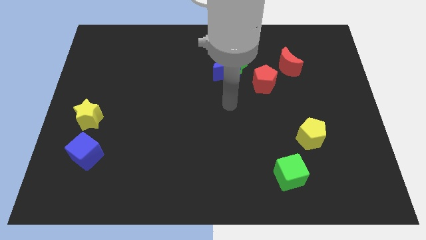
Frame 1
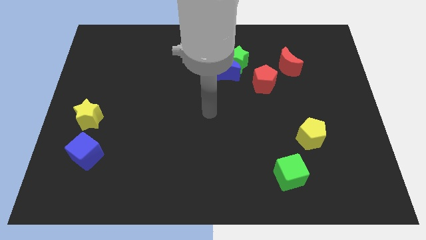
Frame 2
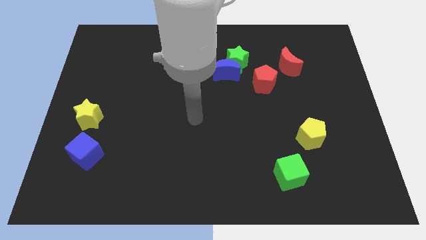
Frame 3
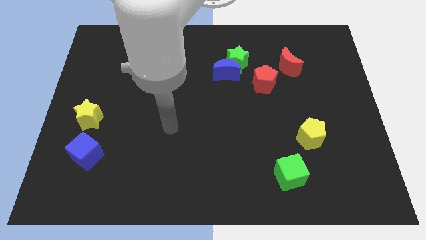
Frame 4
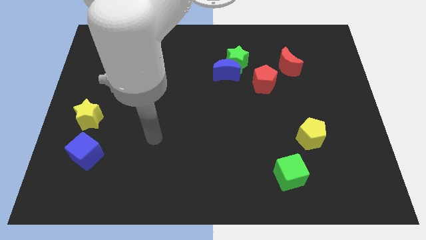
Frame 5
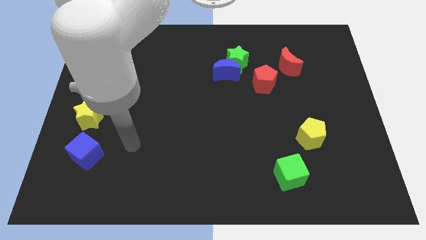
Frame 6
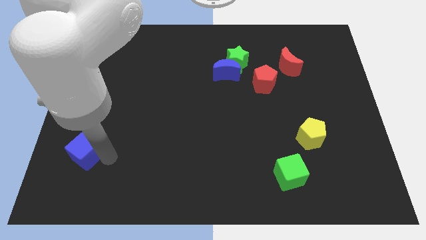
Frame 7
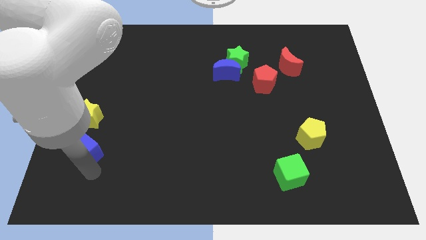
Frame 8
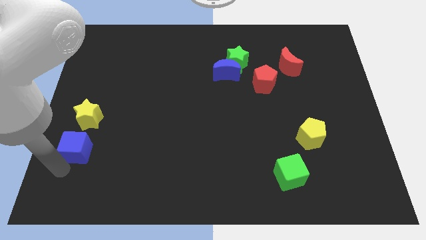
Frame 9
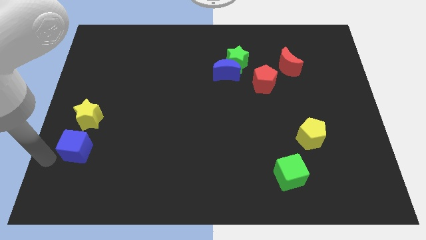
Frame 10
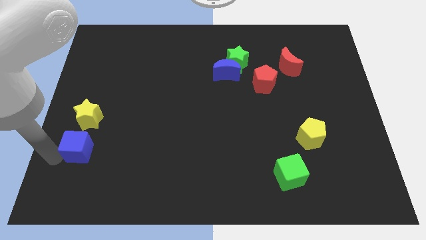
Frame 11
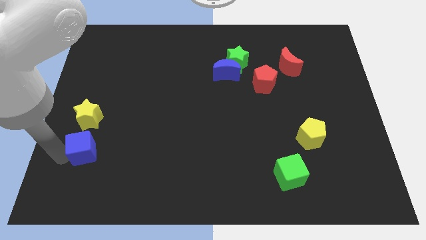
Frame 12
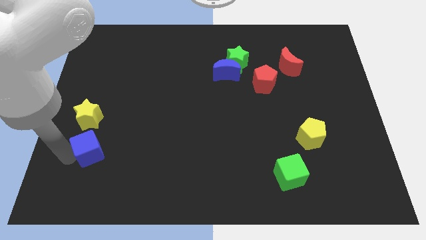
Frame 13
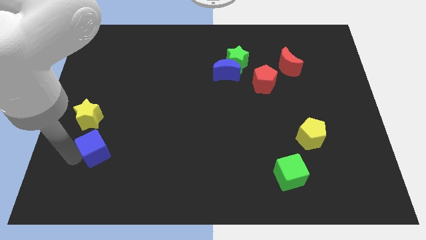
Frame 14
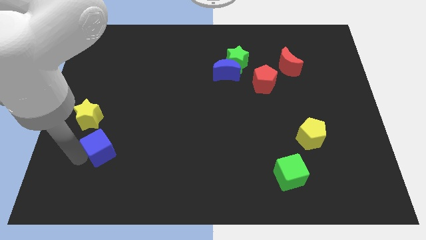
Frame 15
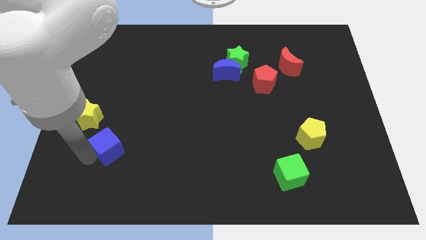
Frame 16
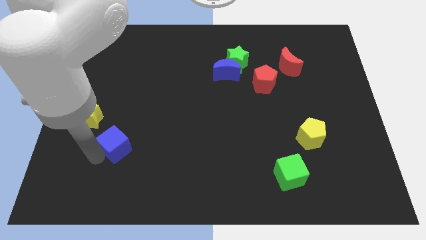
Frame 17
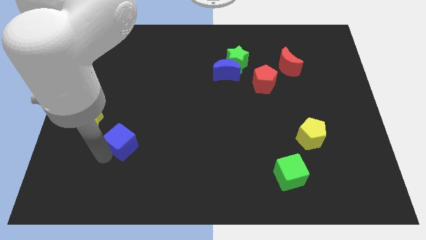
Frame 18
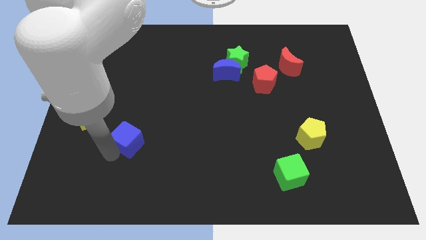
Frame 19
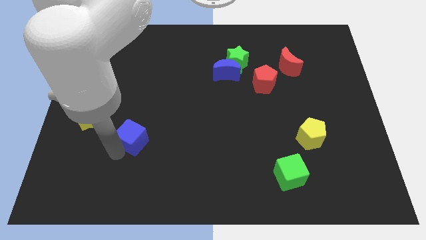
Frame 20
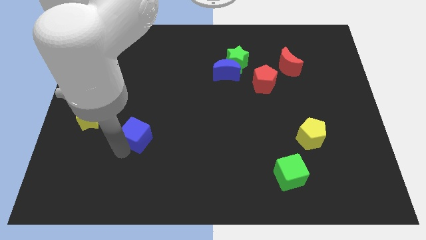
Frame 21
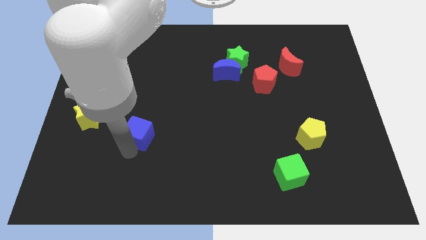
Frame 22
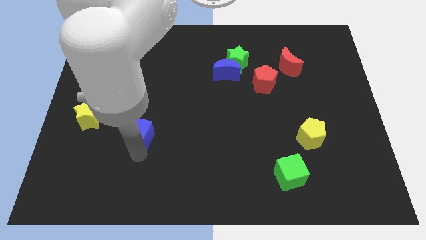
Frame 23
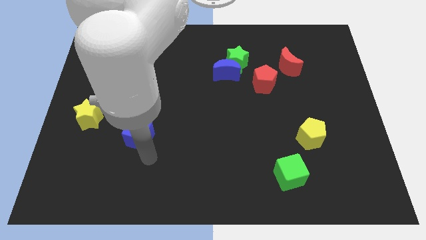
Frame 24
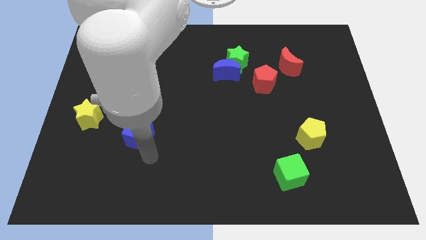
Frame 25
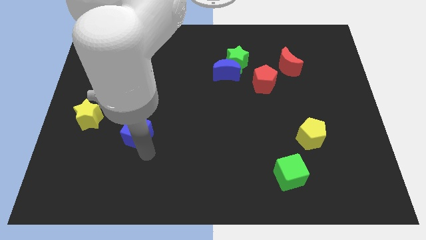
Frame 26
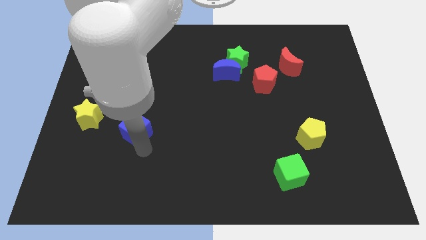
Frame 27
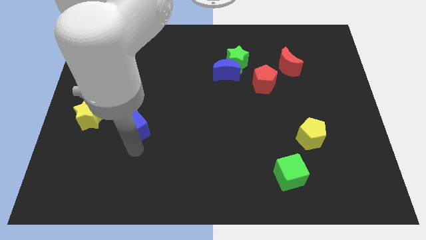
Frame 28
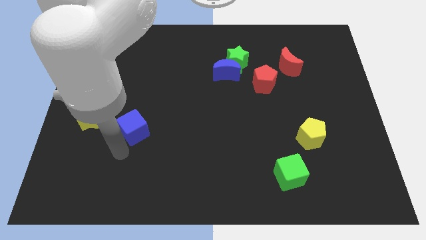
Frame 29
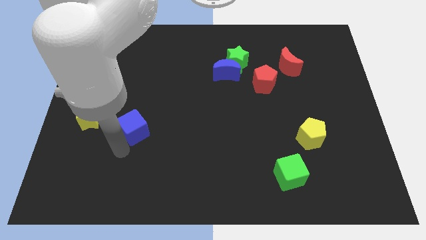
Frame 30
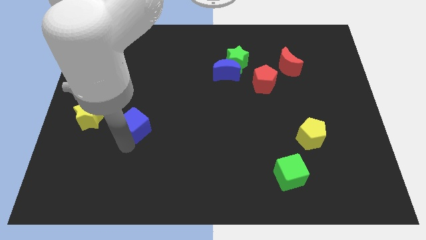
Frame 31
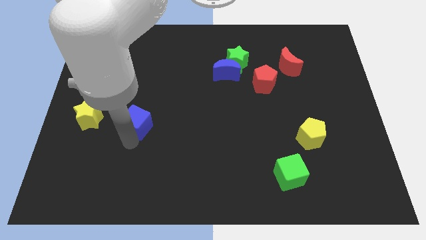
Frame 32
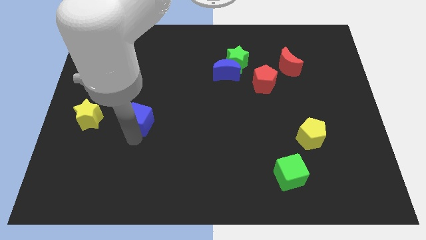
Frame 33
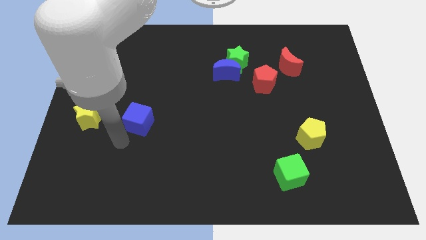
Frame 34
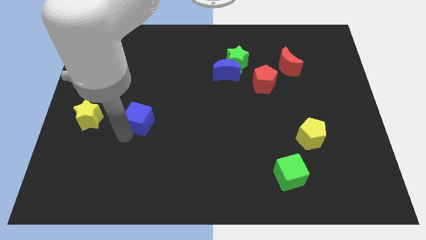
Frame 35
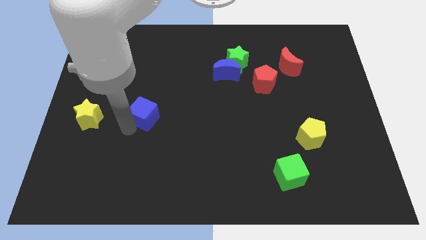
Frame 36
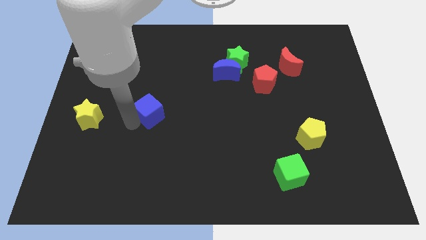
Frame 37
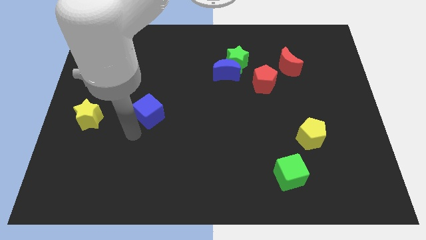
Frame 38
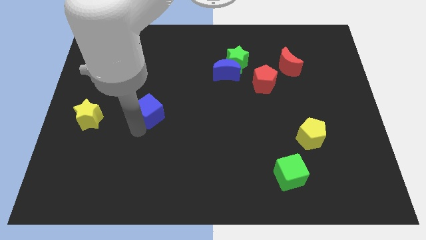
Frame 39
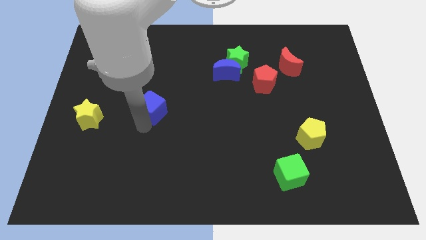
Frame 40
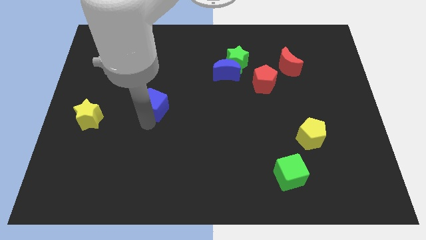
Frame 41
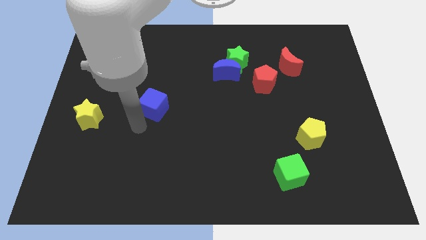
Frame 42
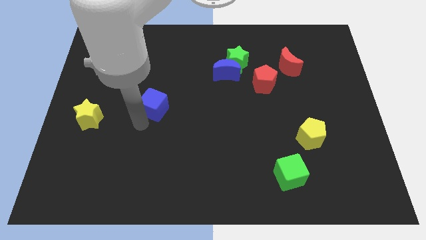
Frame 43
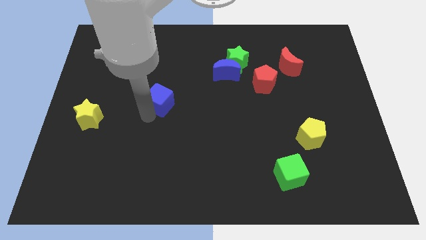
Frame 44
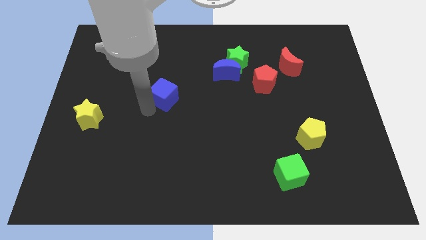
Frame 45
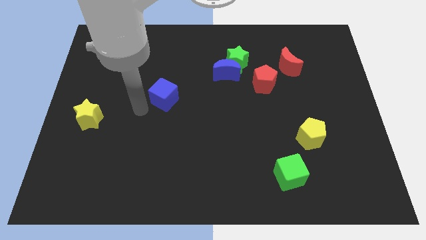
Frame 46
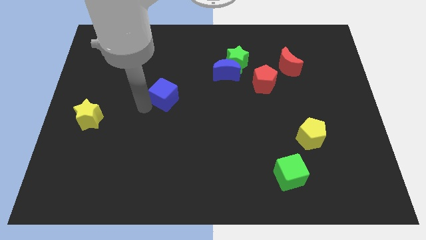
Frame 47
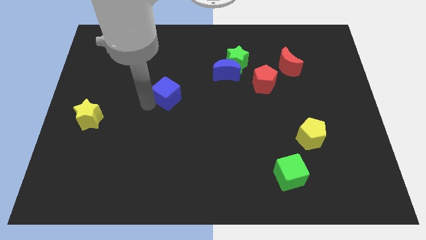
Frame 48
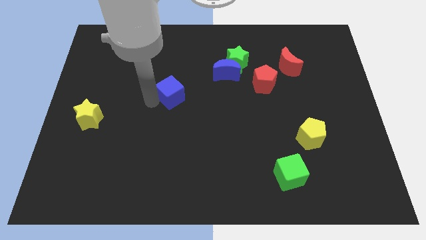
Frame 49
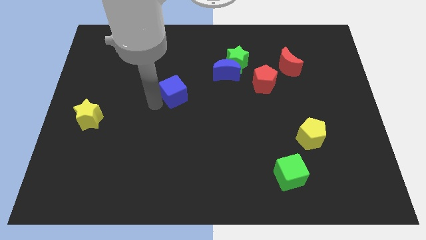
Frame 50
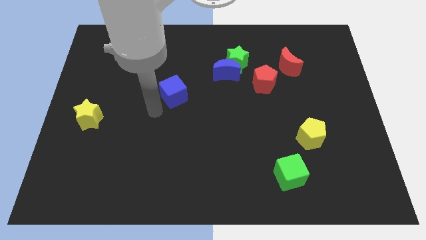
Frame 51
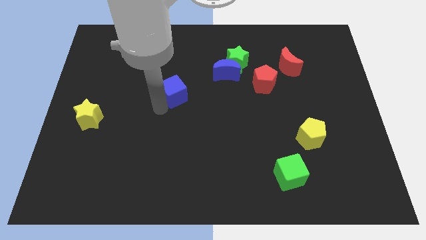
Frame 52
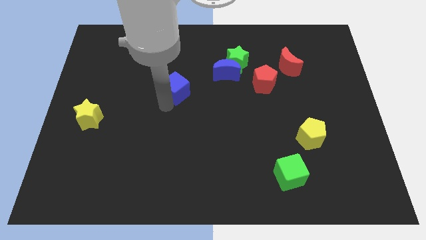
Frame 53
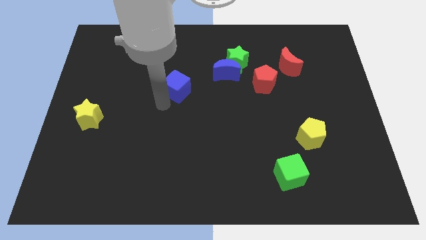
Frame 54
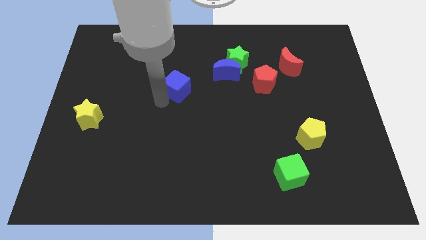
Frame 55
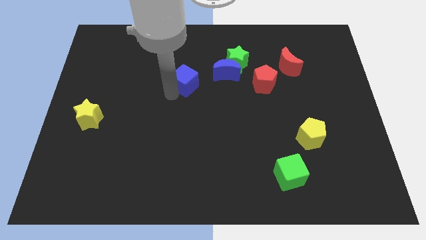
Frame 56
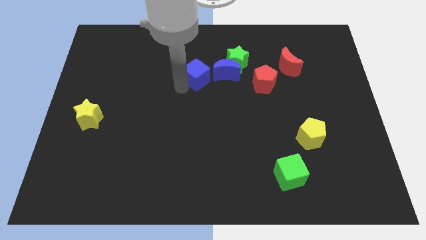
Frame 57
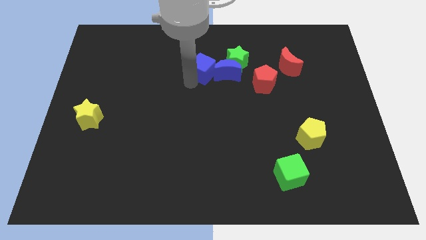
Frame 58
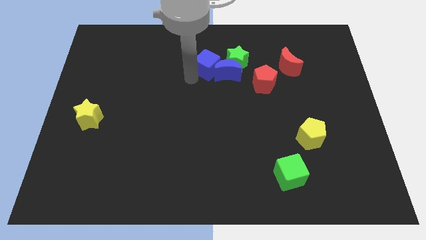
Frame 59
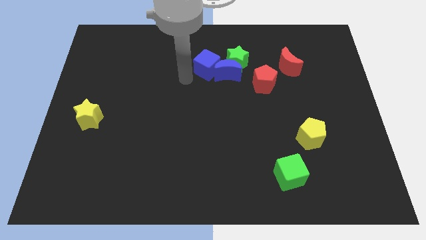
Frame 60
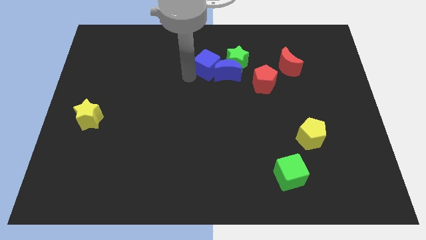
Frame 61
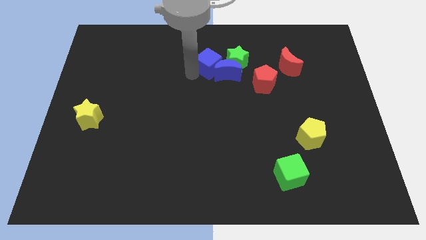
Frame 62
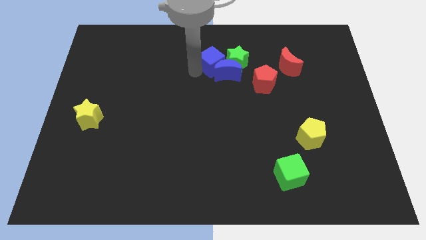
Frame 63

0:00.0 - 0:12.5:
push the blue cube next to the green star

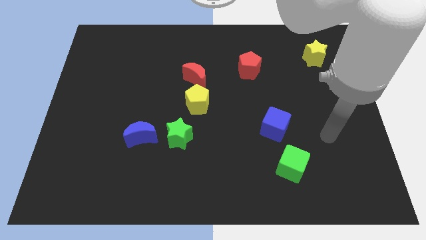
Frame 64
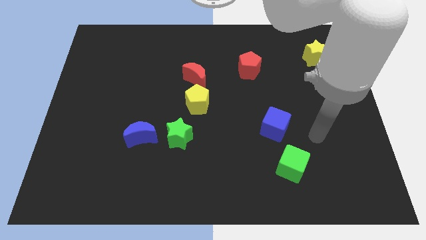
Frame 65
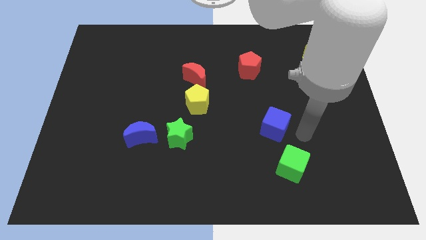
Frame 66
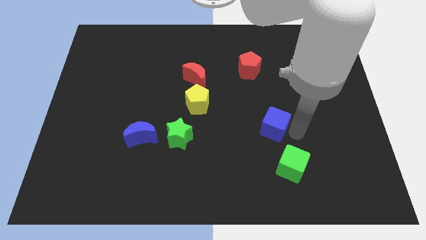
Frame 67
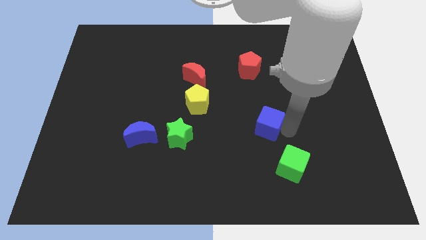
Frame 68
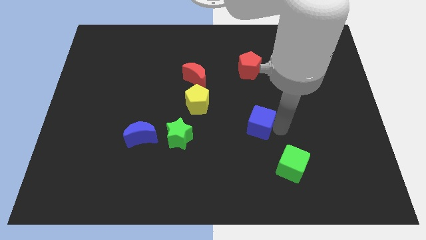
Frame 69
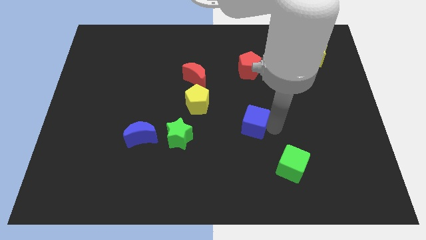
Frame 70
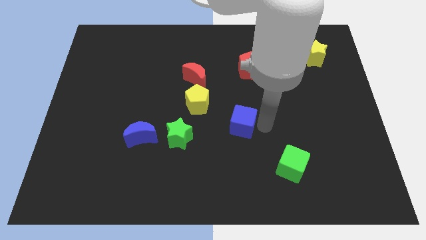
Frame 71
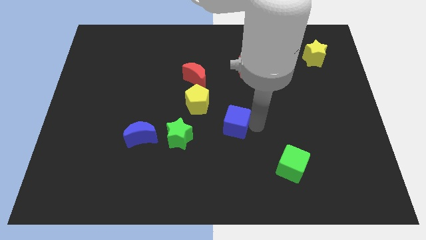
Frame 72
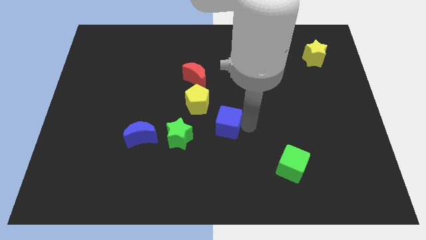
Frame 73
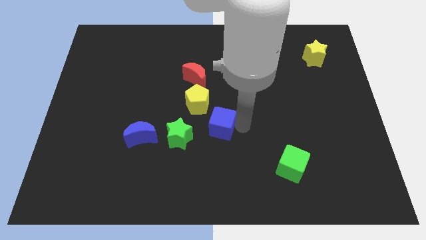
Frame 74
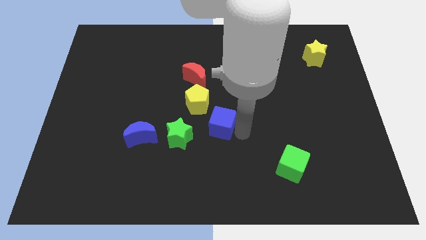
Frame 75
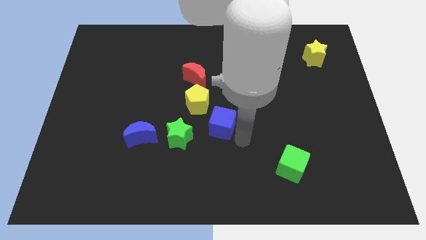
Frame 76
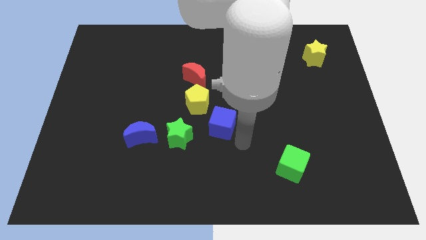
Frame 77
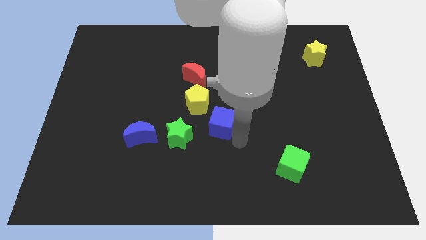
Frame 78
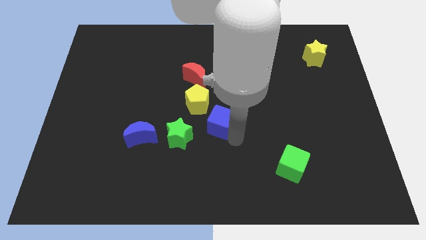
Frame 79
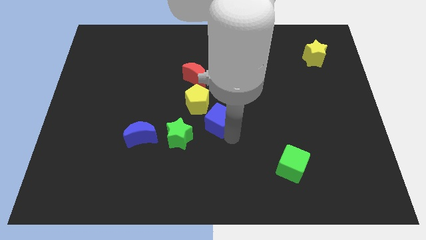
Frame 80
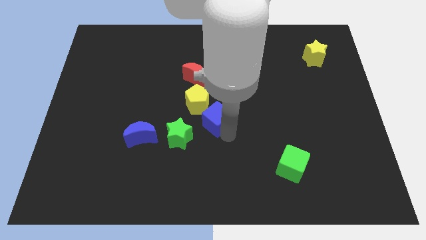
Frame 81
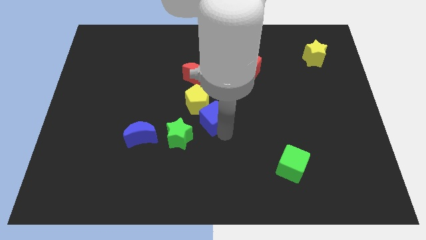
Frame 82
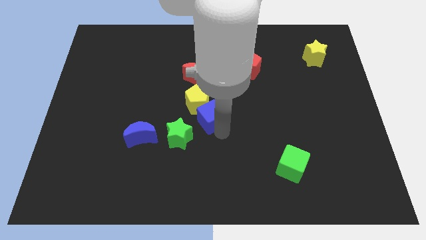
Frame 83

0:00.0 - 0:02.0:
push the blue cube towards the yellow pentagon
